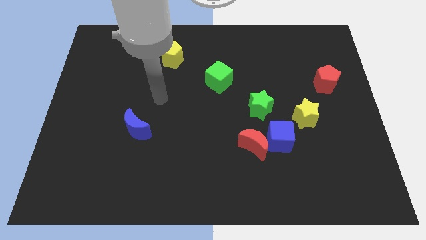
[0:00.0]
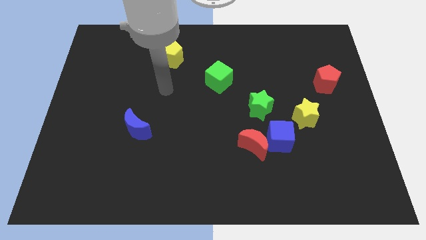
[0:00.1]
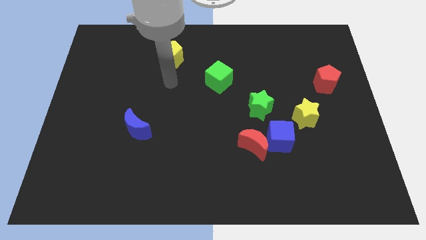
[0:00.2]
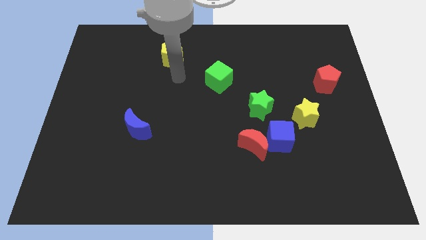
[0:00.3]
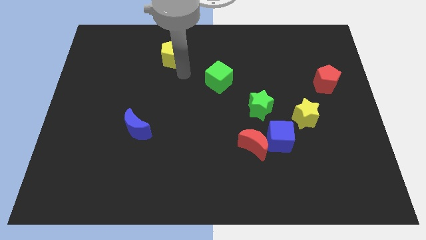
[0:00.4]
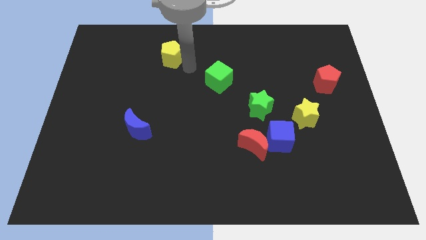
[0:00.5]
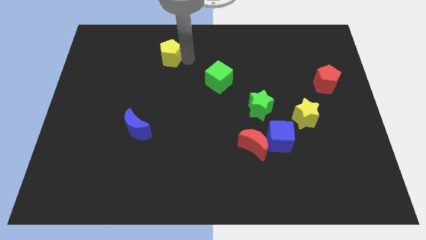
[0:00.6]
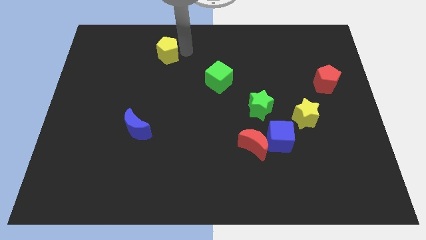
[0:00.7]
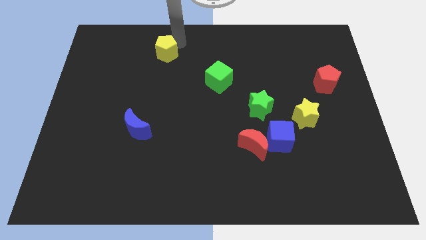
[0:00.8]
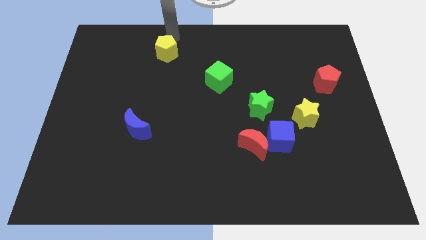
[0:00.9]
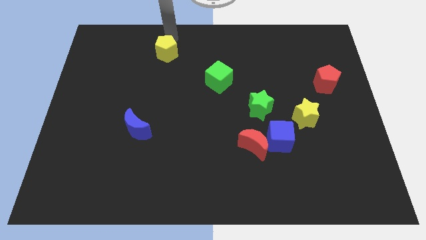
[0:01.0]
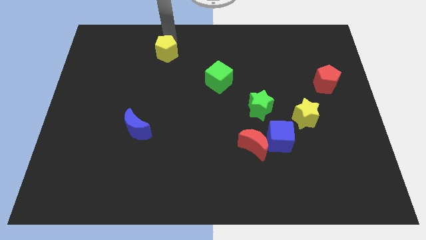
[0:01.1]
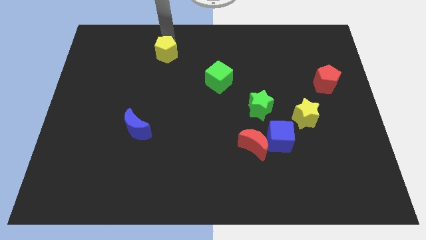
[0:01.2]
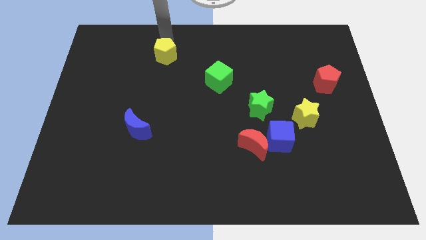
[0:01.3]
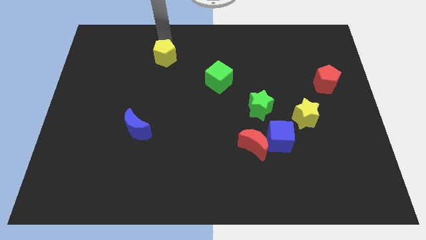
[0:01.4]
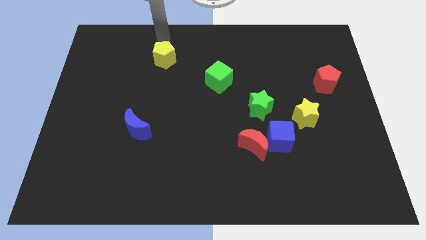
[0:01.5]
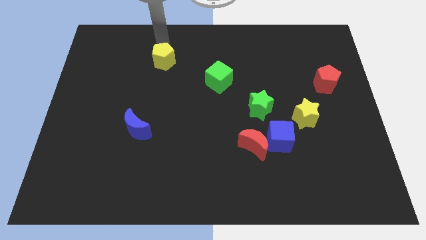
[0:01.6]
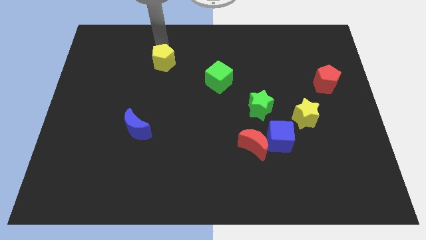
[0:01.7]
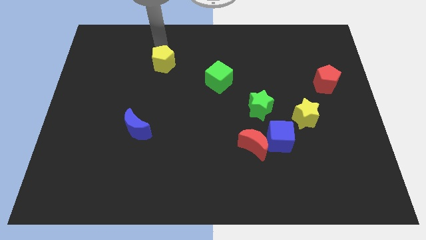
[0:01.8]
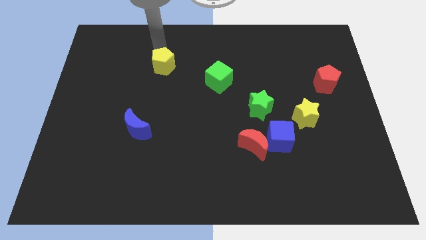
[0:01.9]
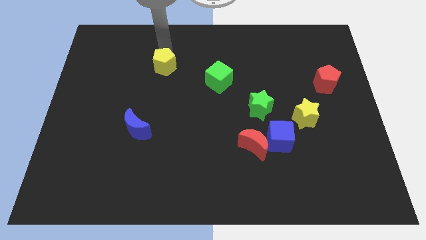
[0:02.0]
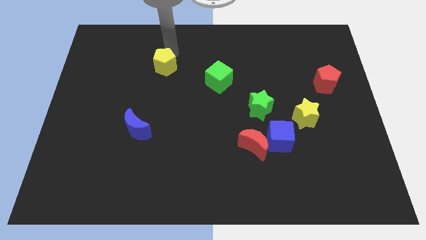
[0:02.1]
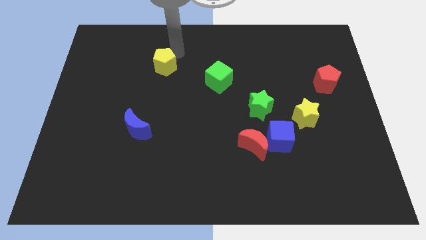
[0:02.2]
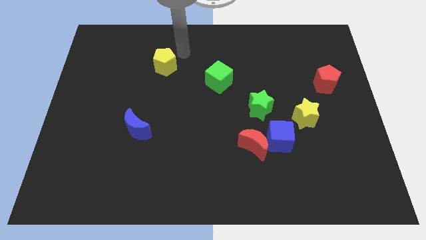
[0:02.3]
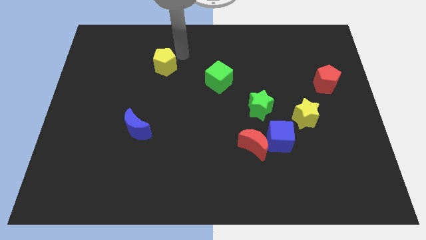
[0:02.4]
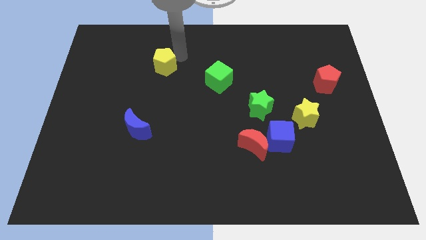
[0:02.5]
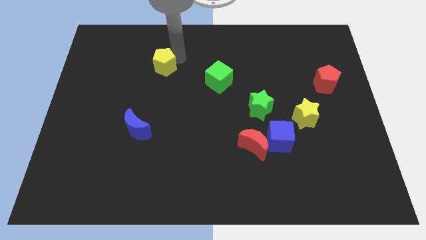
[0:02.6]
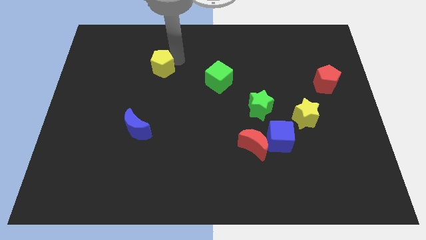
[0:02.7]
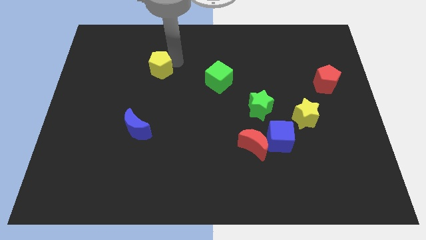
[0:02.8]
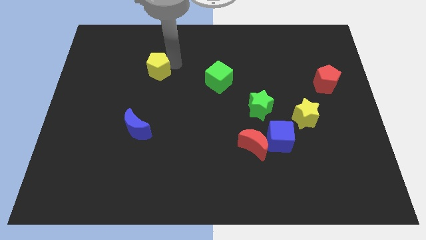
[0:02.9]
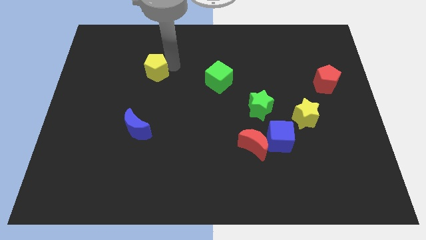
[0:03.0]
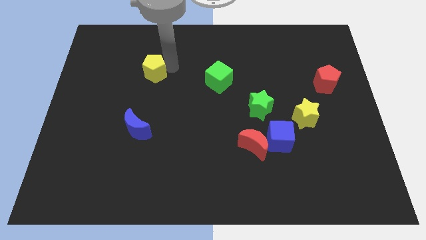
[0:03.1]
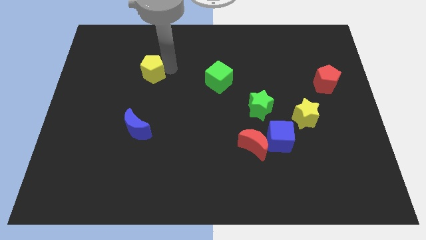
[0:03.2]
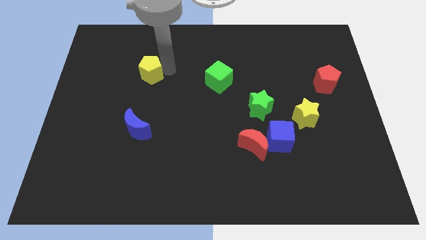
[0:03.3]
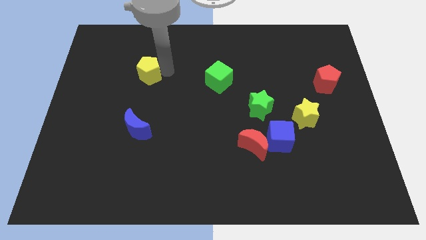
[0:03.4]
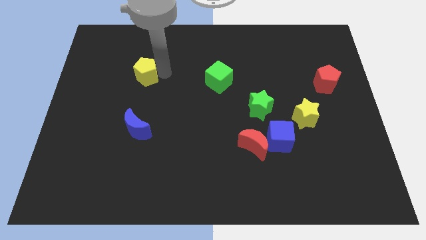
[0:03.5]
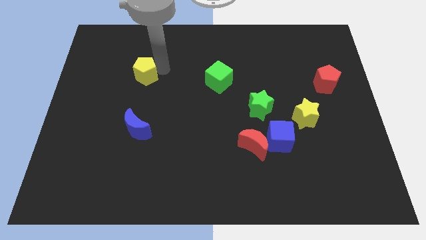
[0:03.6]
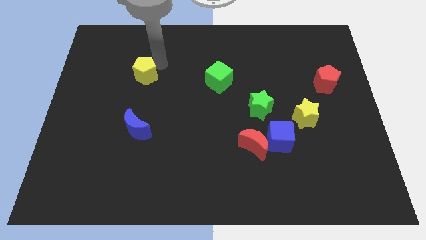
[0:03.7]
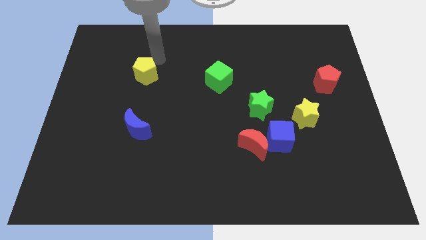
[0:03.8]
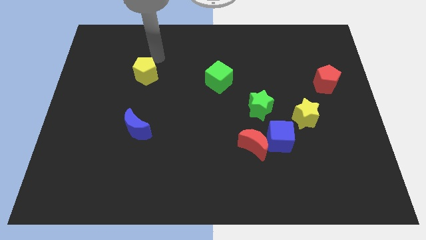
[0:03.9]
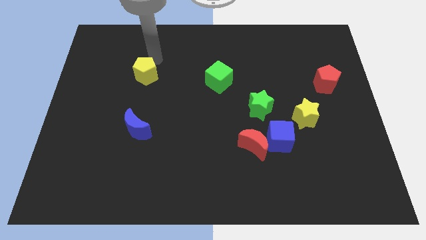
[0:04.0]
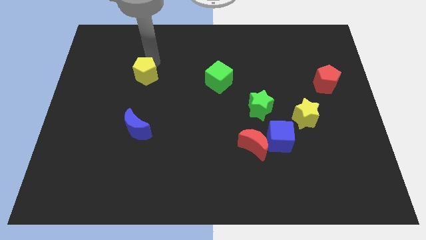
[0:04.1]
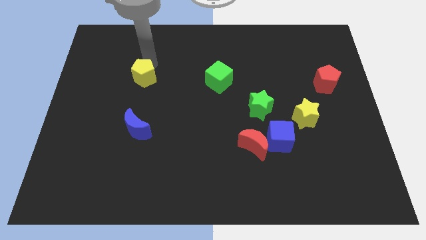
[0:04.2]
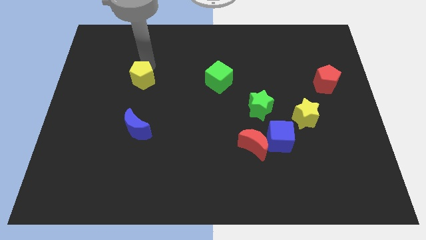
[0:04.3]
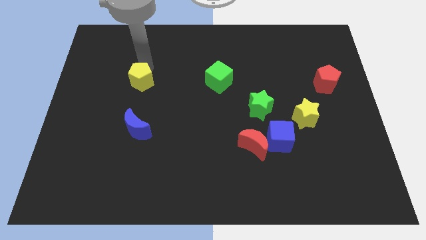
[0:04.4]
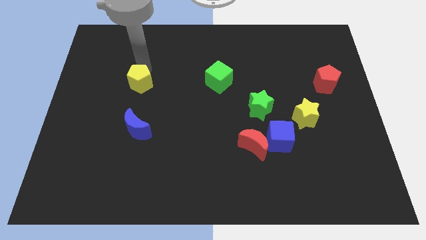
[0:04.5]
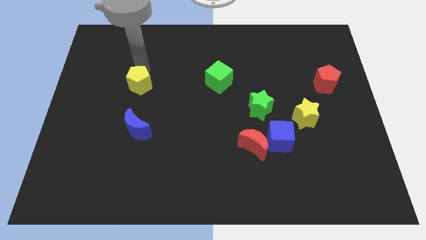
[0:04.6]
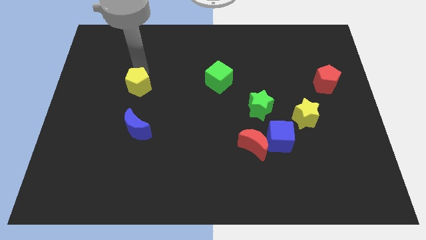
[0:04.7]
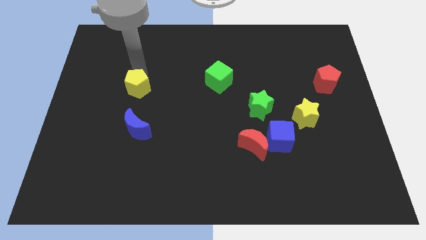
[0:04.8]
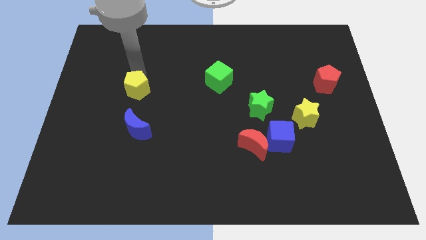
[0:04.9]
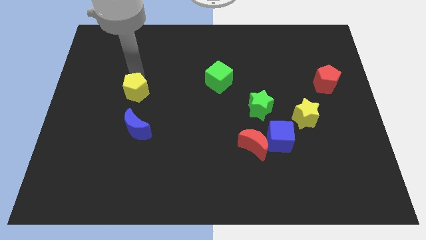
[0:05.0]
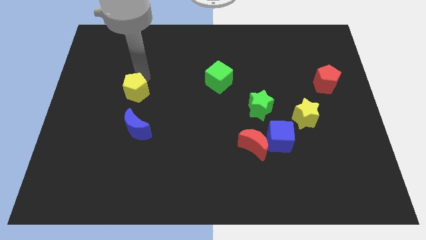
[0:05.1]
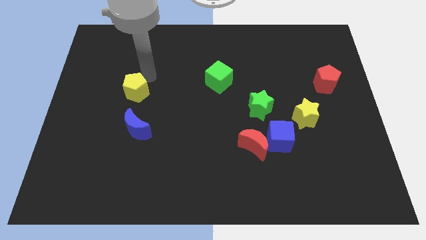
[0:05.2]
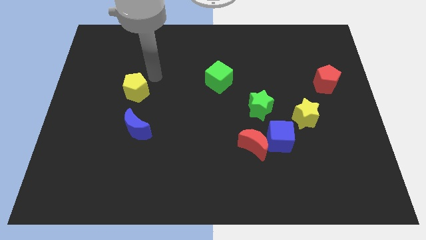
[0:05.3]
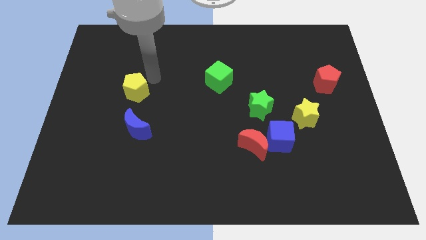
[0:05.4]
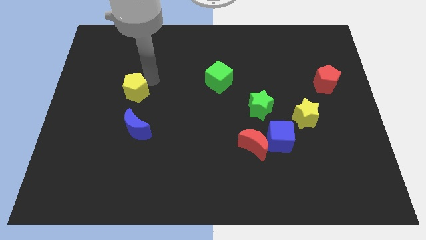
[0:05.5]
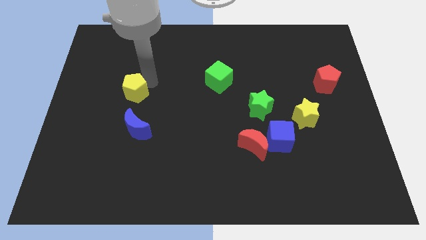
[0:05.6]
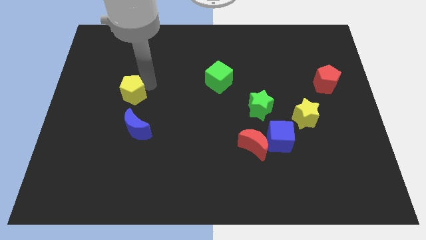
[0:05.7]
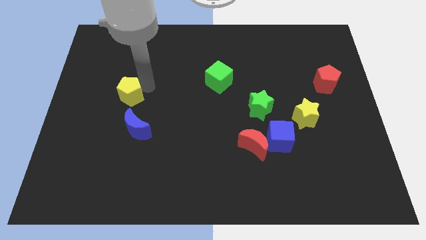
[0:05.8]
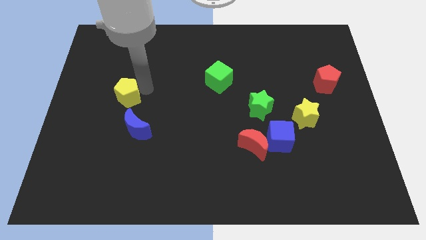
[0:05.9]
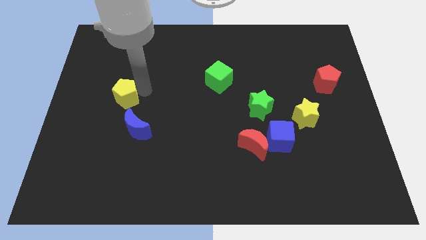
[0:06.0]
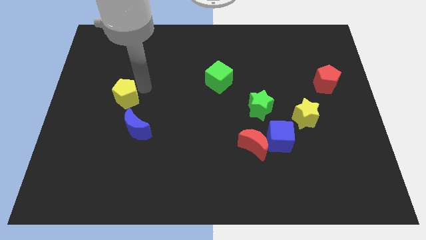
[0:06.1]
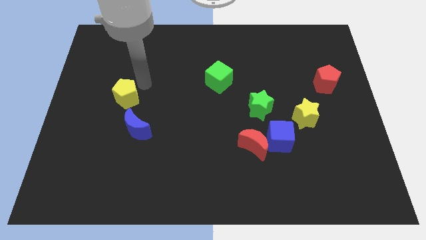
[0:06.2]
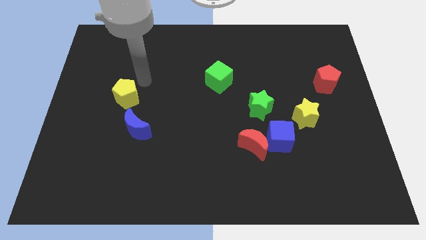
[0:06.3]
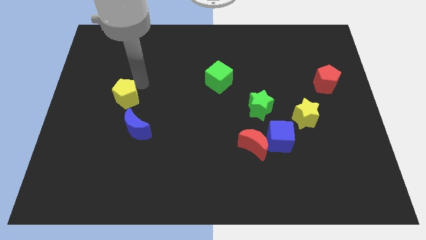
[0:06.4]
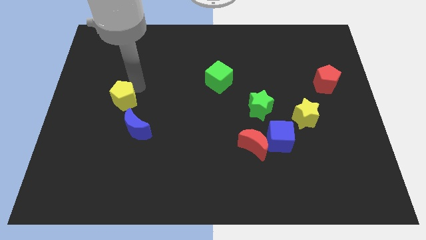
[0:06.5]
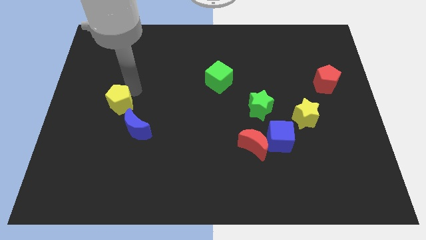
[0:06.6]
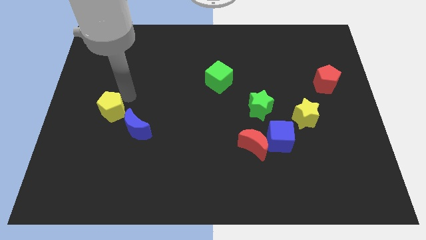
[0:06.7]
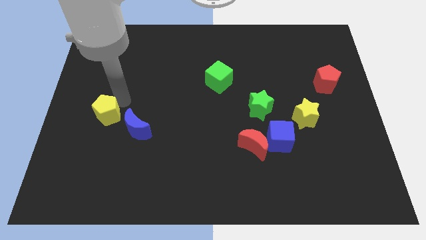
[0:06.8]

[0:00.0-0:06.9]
slide the yellow pentagon to the left of the blue moon
